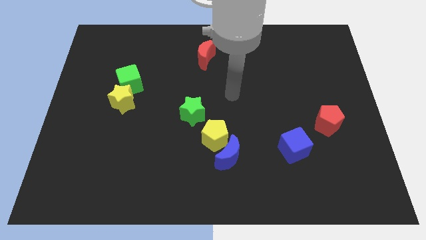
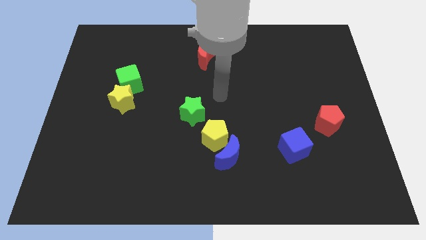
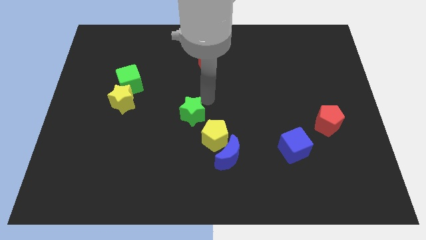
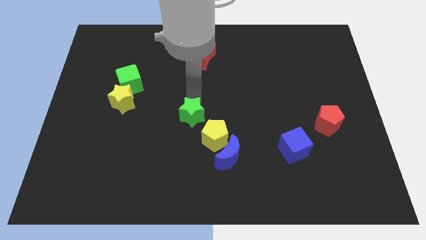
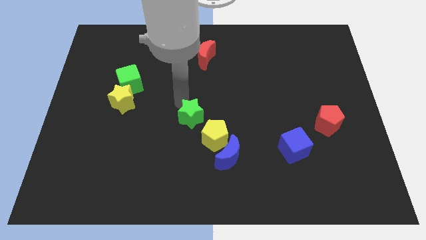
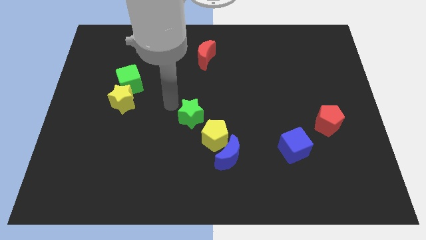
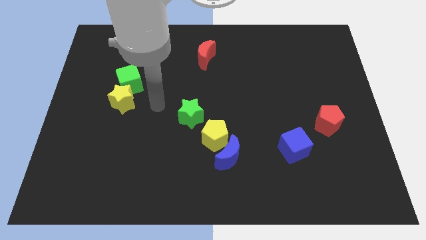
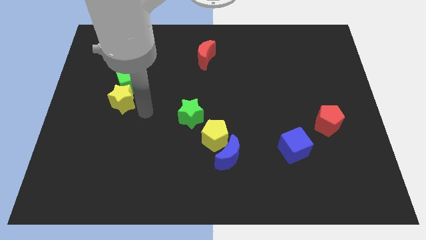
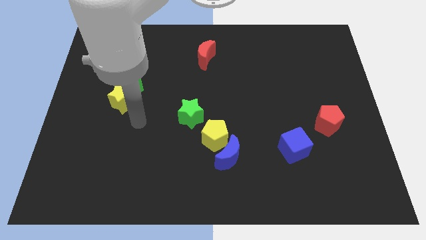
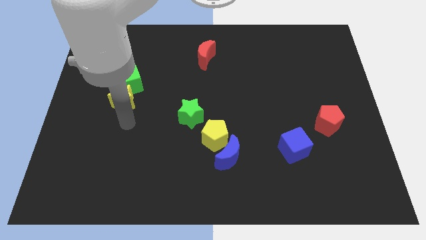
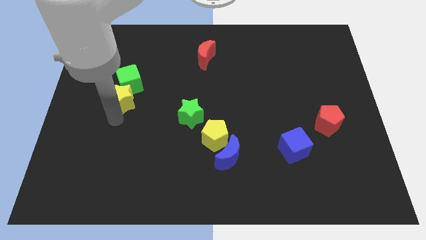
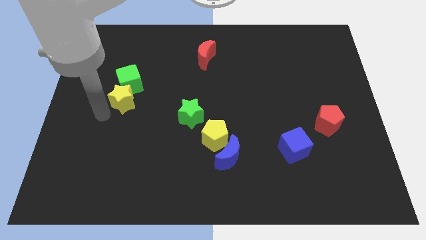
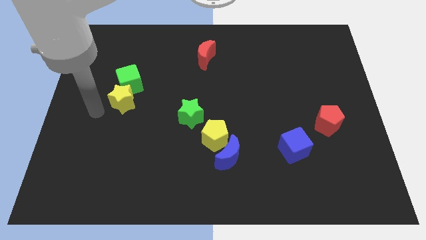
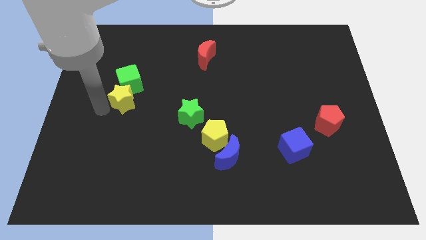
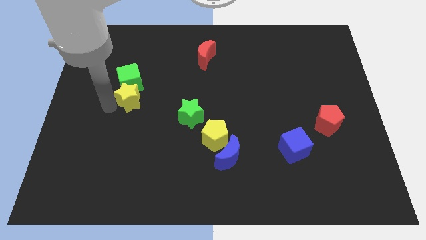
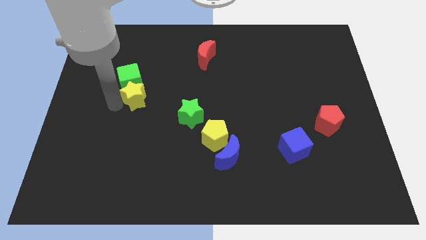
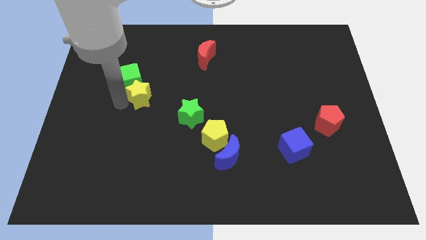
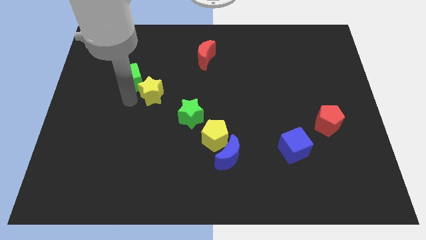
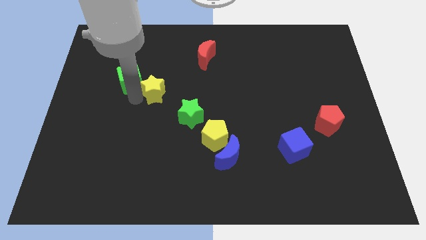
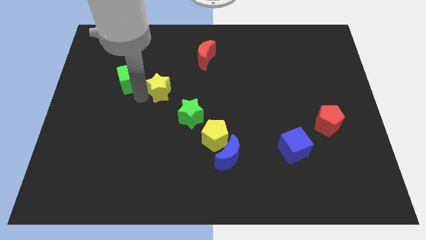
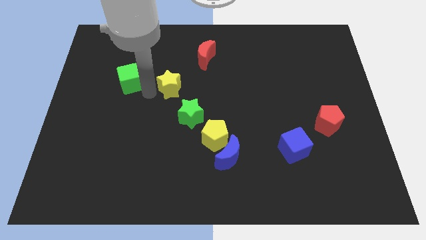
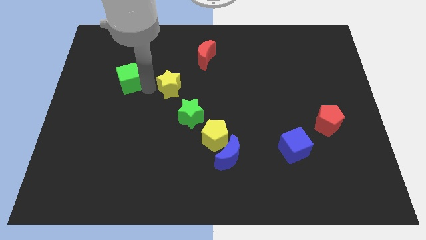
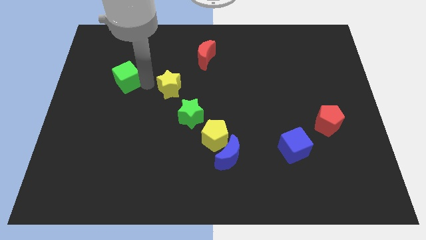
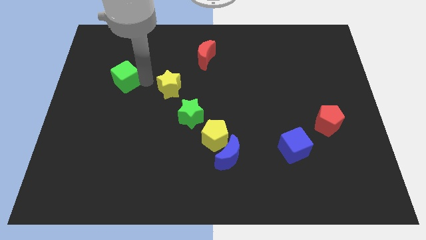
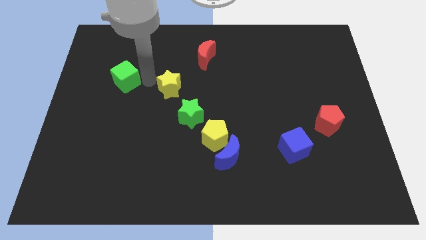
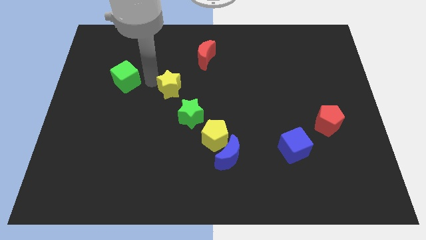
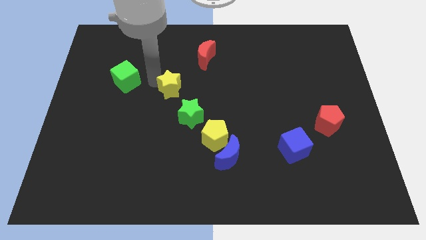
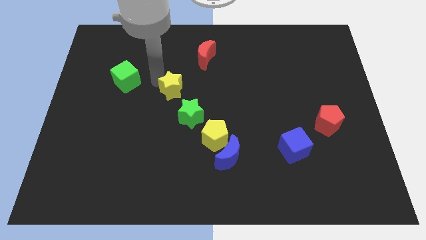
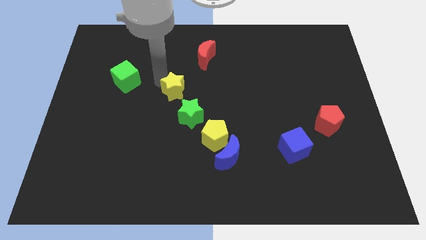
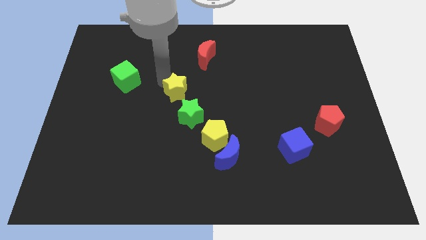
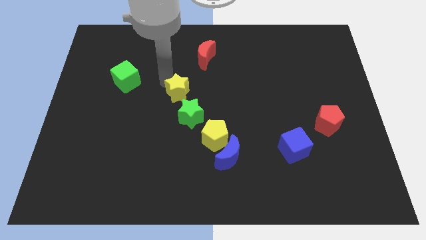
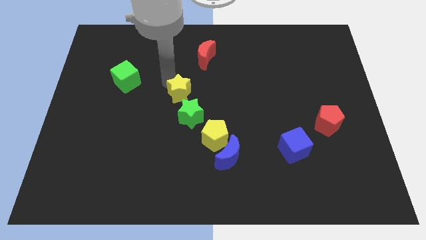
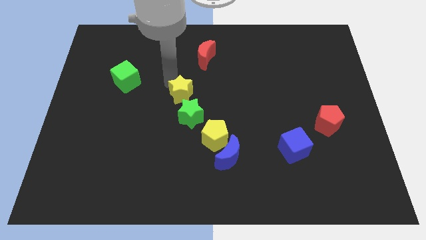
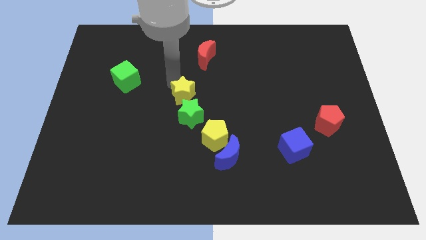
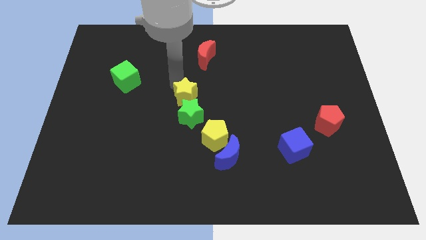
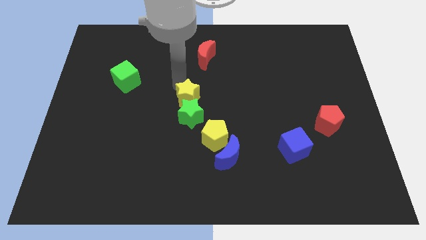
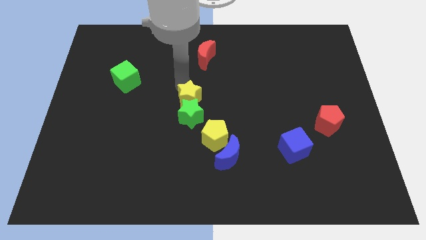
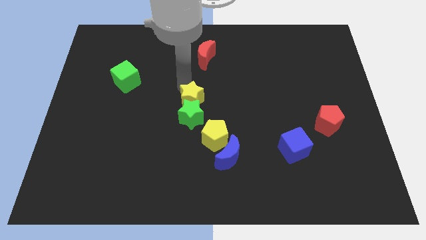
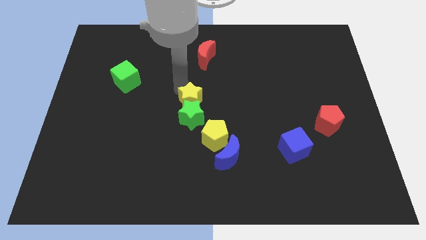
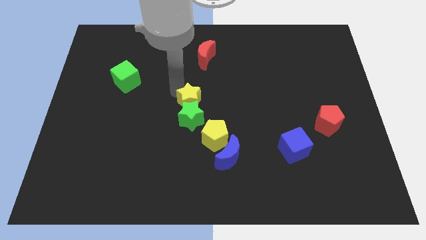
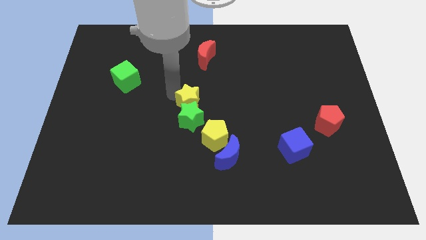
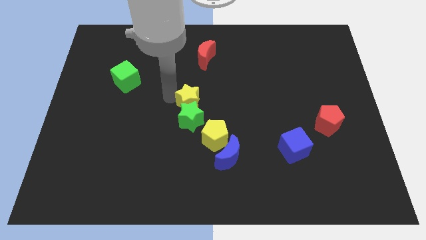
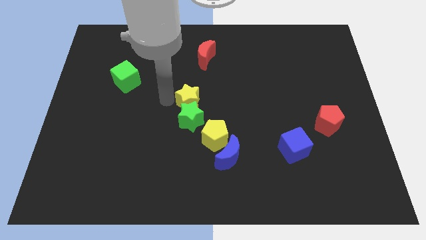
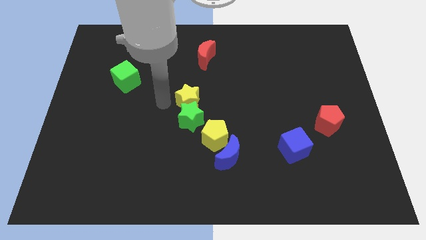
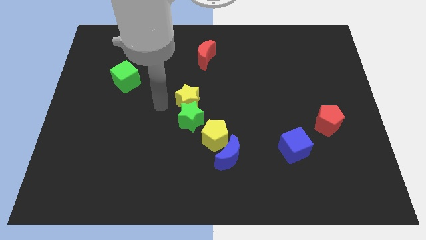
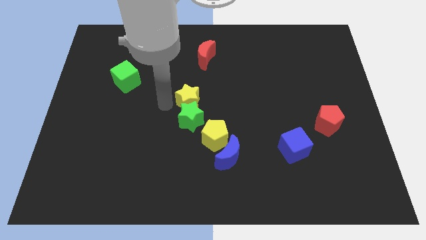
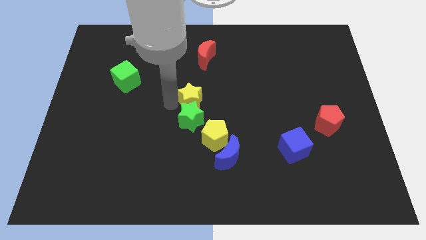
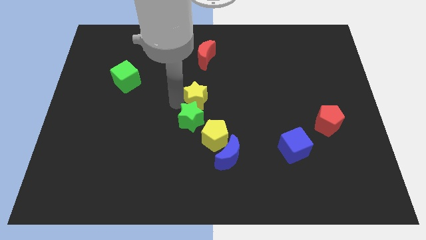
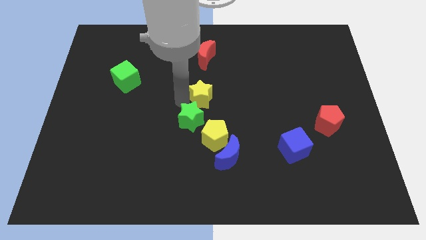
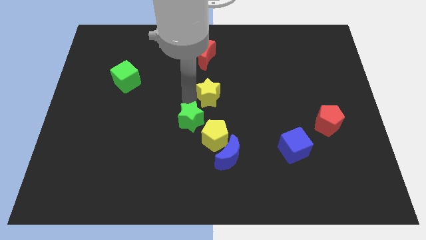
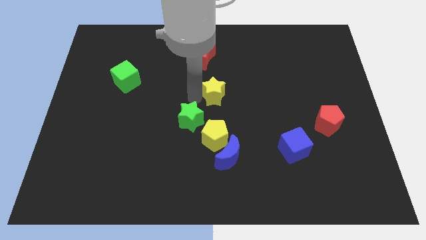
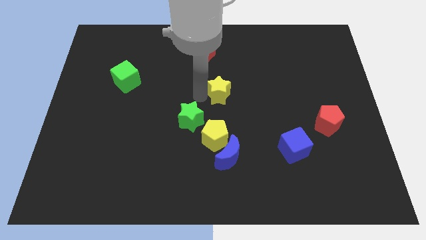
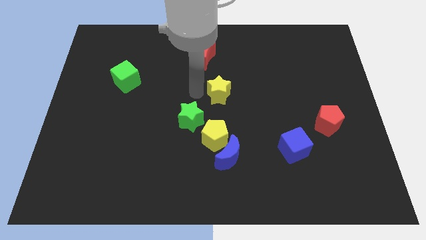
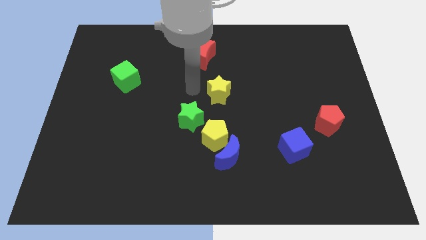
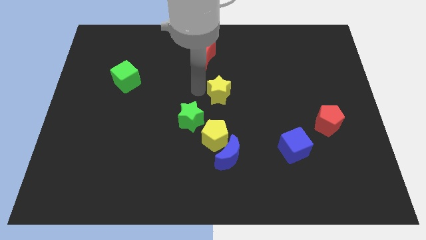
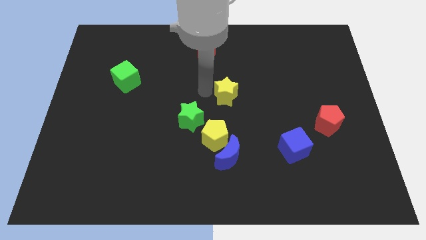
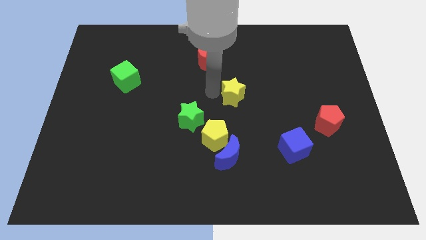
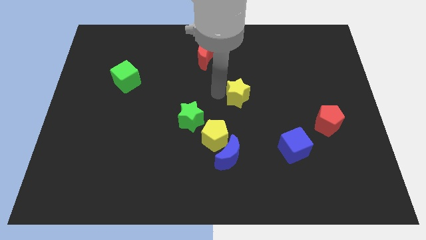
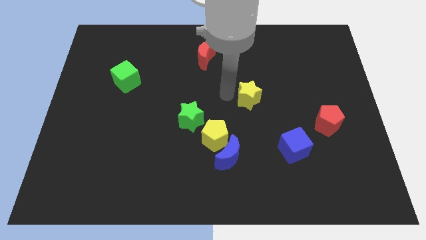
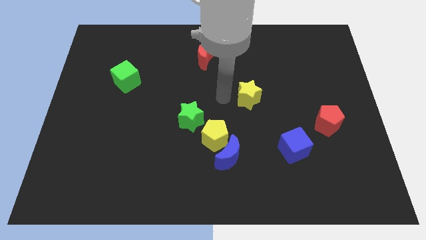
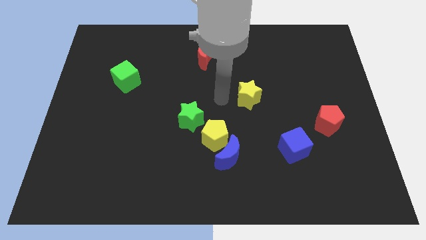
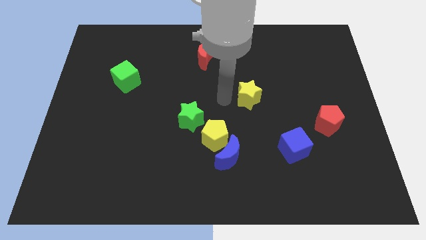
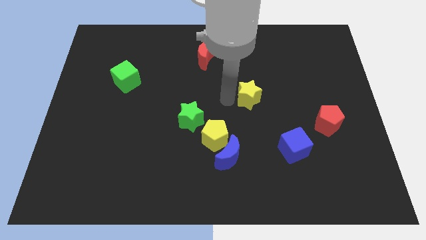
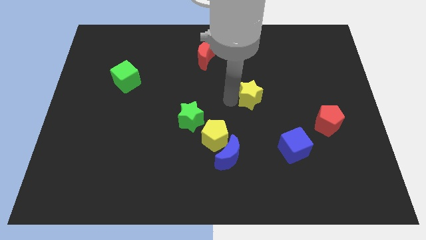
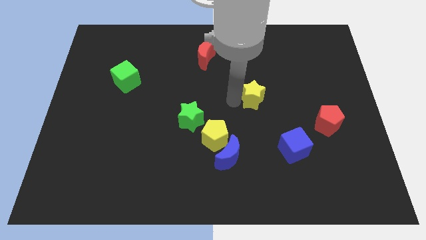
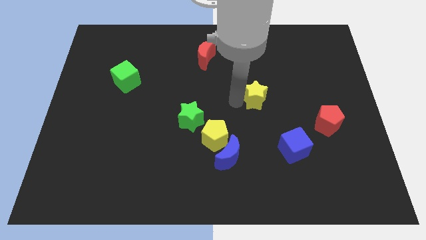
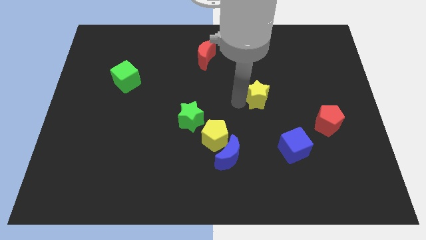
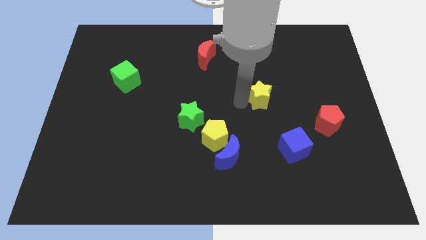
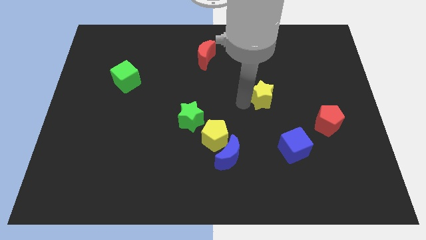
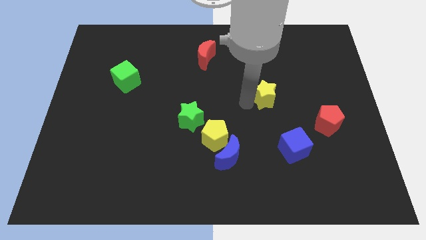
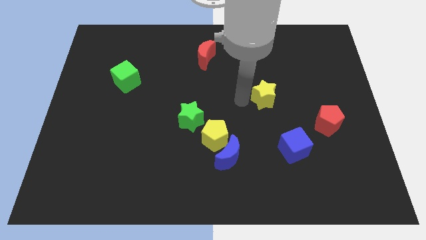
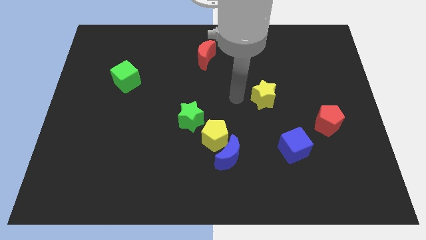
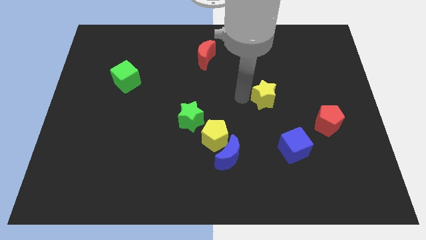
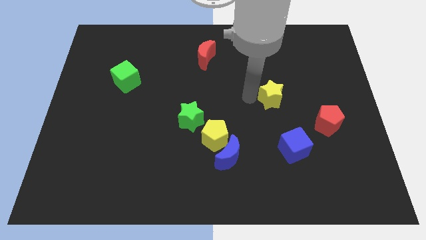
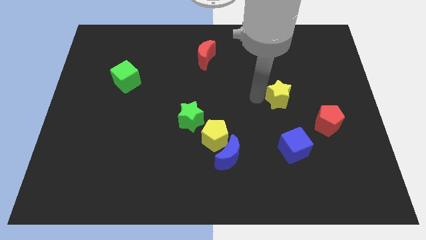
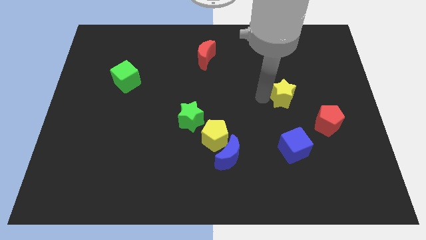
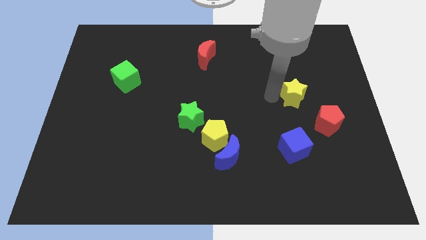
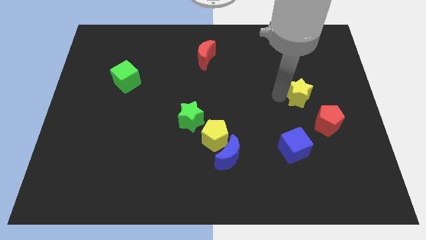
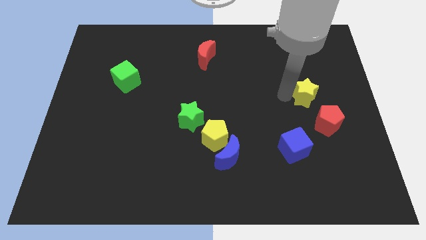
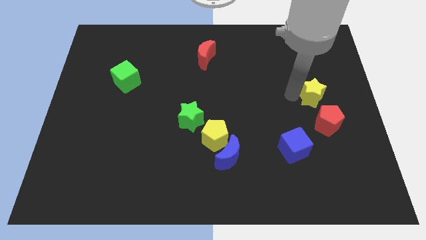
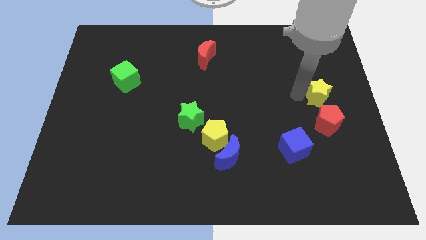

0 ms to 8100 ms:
put the yellow star to the center right
